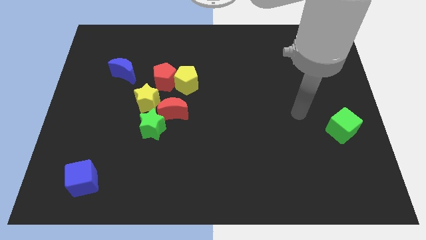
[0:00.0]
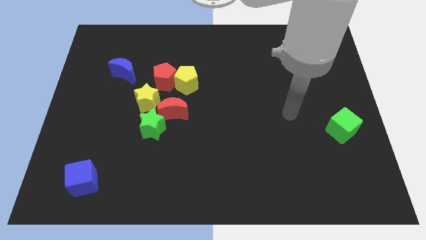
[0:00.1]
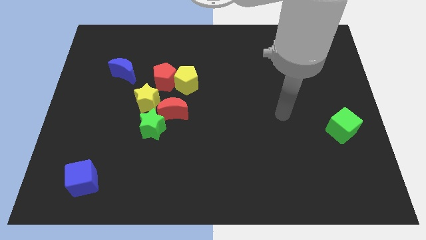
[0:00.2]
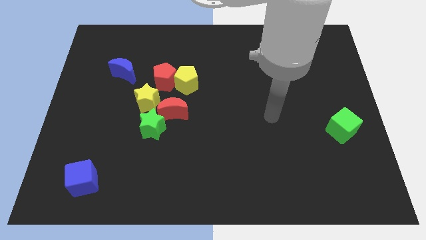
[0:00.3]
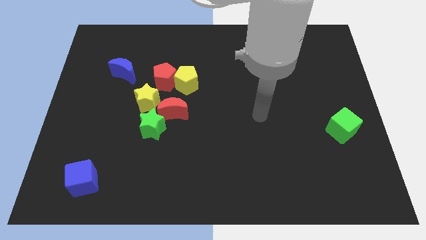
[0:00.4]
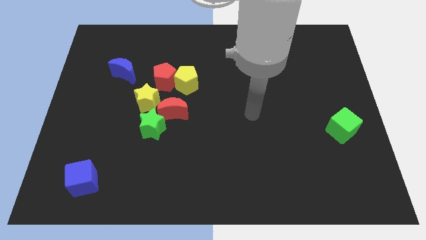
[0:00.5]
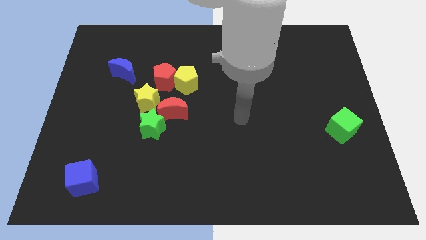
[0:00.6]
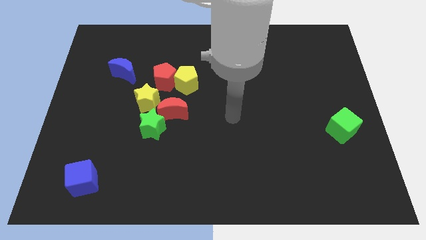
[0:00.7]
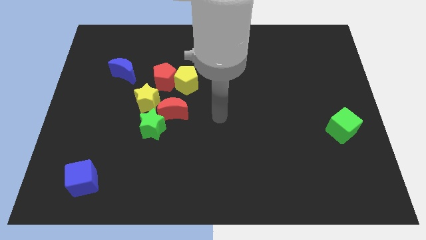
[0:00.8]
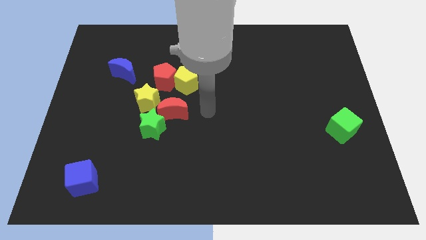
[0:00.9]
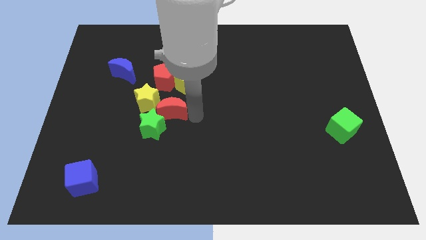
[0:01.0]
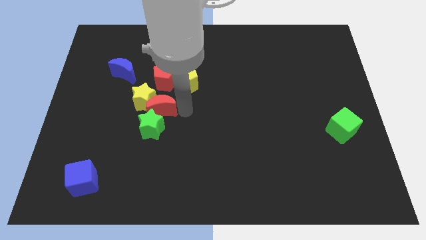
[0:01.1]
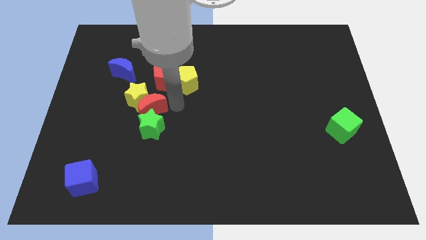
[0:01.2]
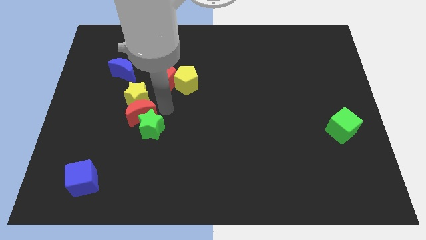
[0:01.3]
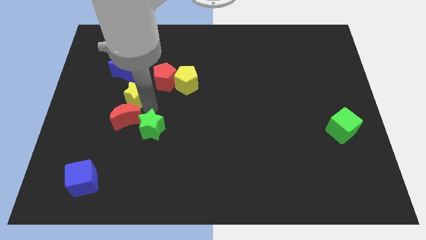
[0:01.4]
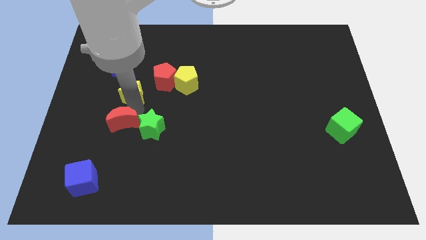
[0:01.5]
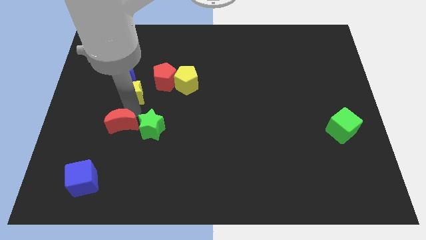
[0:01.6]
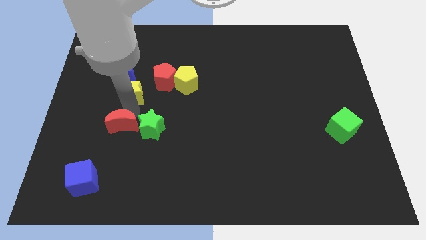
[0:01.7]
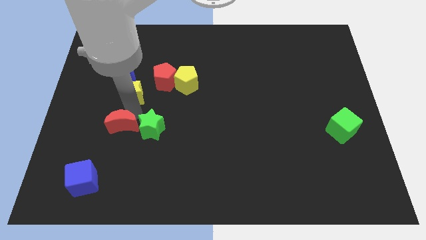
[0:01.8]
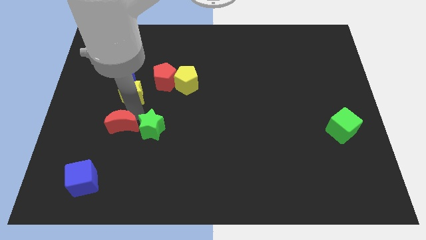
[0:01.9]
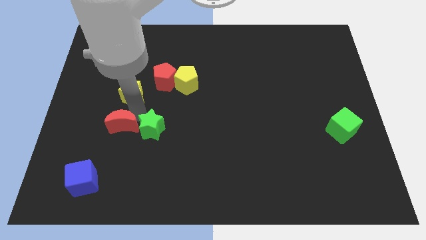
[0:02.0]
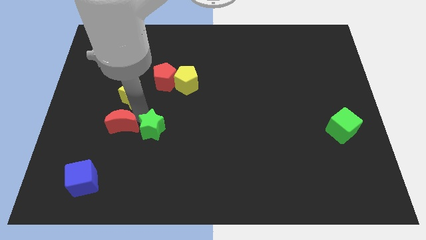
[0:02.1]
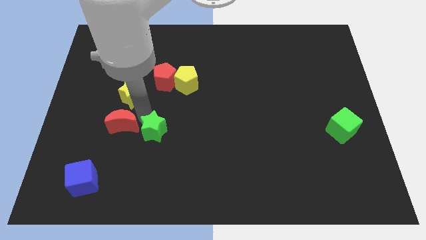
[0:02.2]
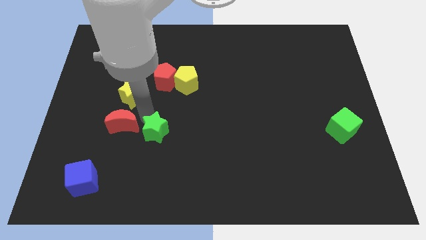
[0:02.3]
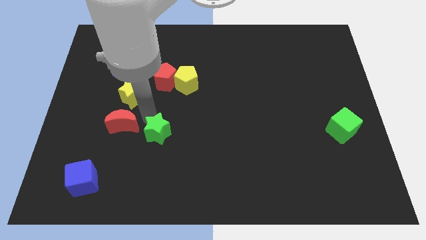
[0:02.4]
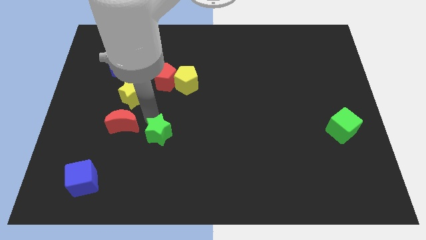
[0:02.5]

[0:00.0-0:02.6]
move the green star away from the red moon and yellow star

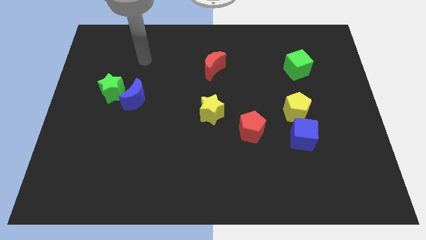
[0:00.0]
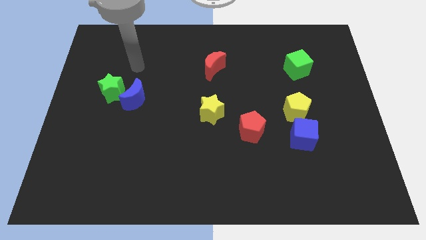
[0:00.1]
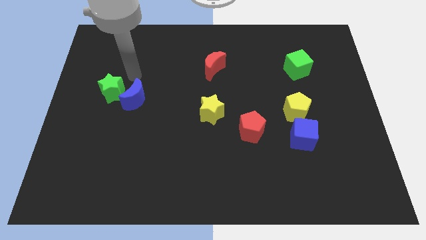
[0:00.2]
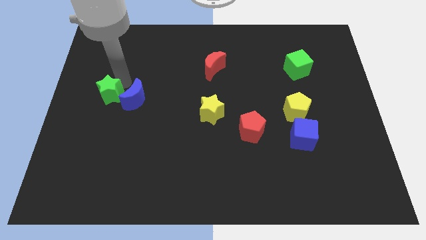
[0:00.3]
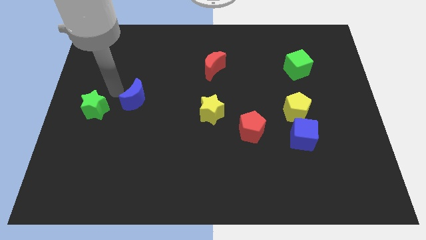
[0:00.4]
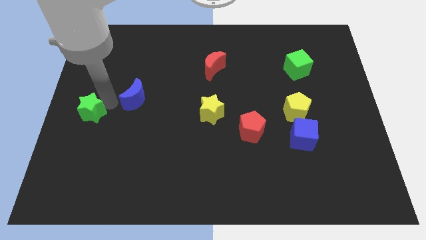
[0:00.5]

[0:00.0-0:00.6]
move the blue moon away from the green star

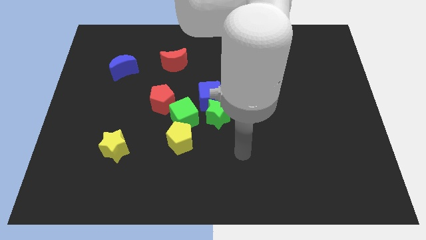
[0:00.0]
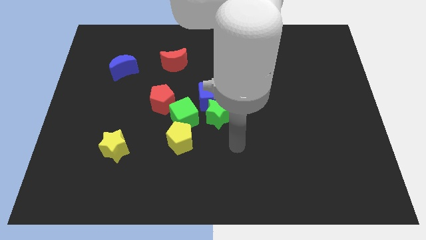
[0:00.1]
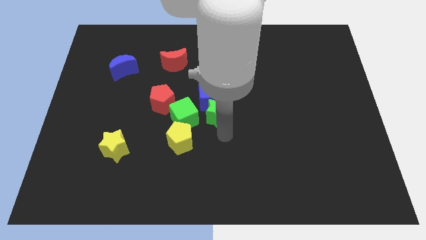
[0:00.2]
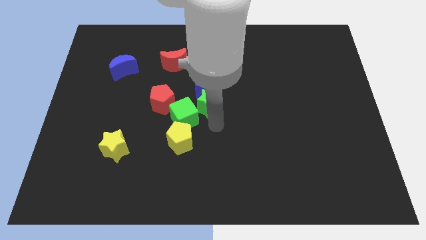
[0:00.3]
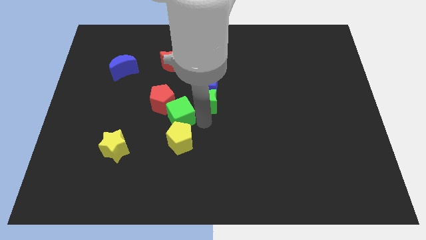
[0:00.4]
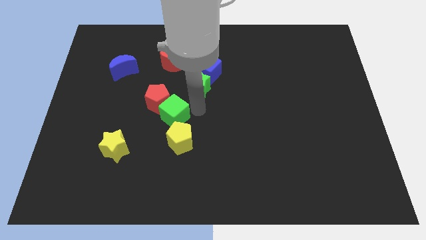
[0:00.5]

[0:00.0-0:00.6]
separate the blue cube from the green star and green cube

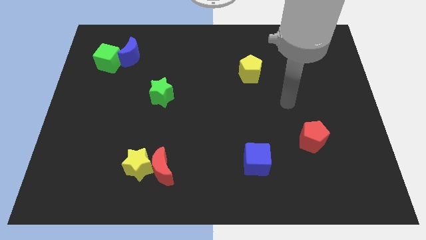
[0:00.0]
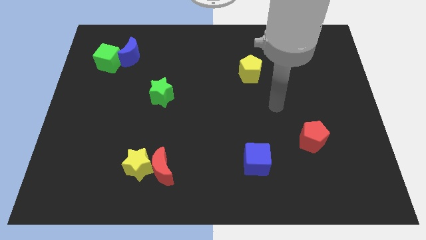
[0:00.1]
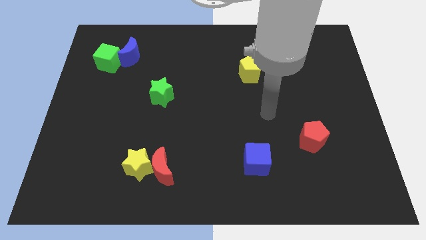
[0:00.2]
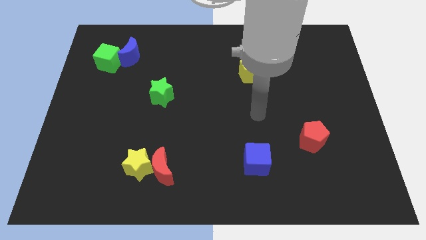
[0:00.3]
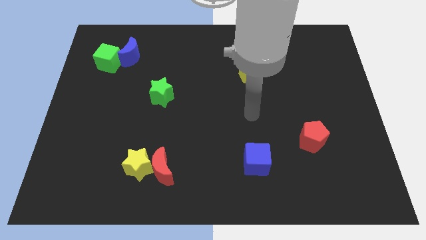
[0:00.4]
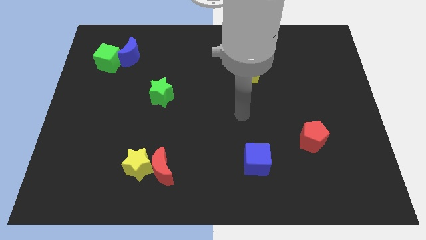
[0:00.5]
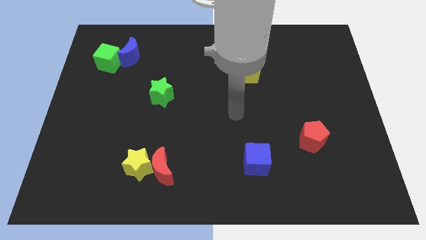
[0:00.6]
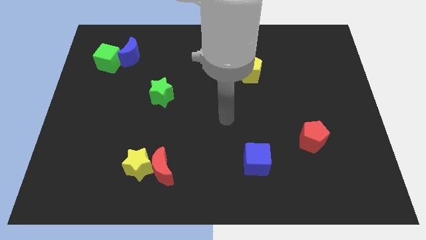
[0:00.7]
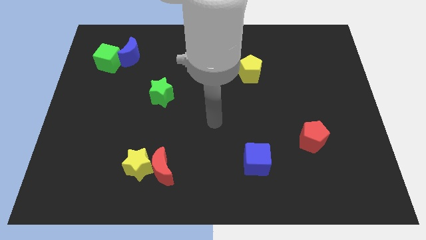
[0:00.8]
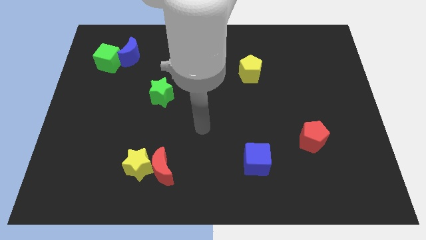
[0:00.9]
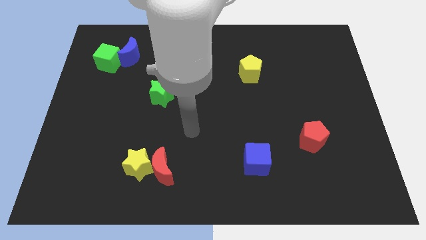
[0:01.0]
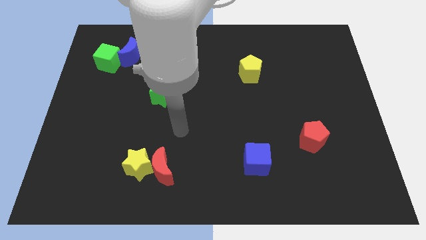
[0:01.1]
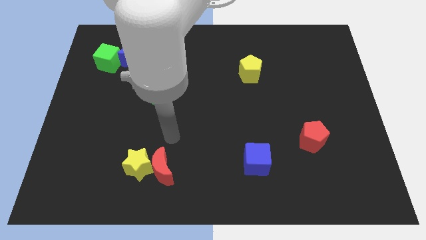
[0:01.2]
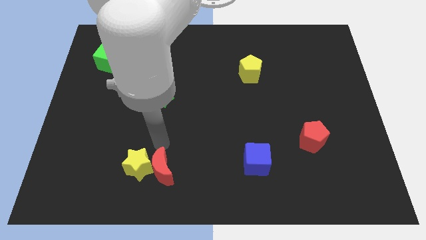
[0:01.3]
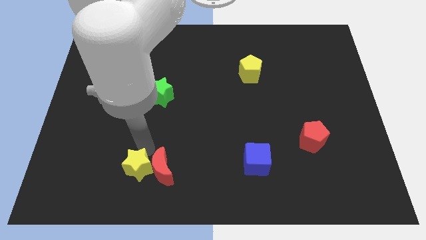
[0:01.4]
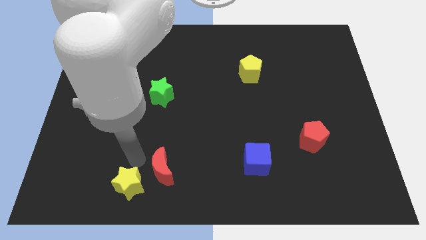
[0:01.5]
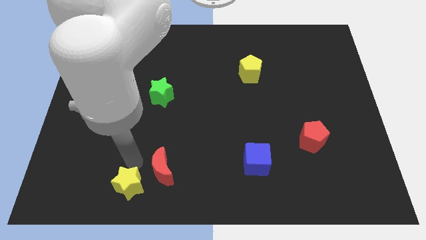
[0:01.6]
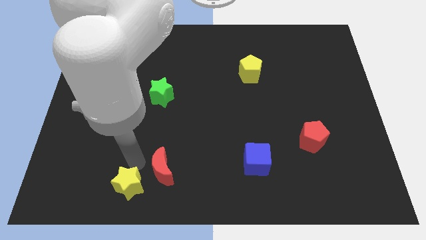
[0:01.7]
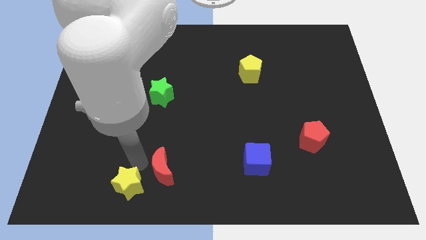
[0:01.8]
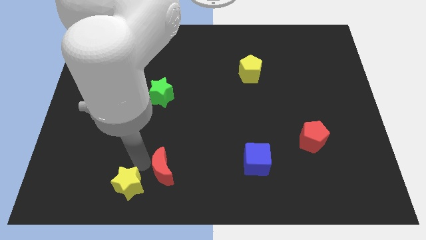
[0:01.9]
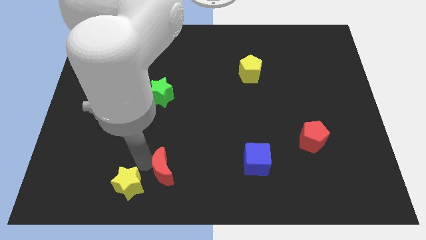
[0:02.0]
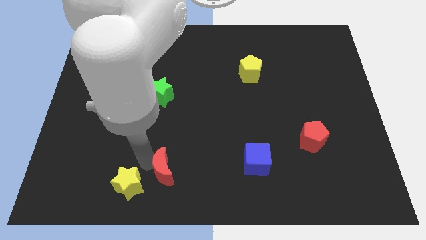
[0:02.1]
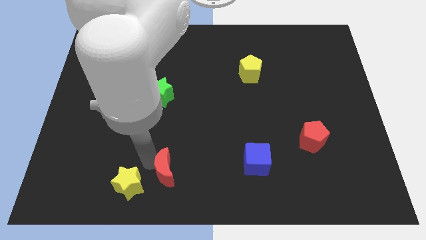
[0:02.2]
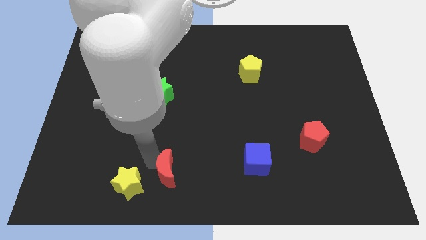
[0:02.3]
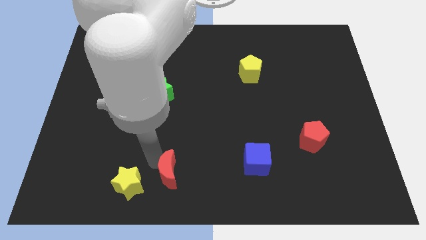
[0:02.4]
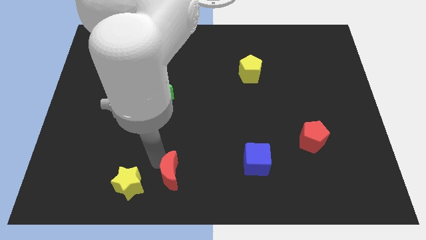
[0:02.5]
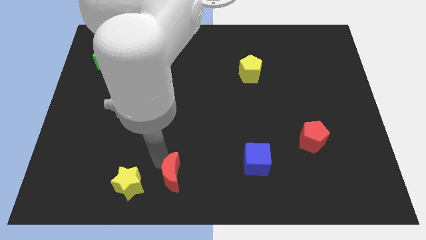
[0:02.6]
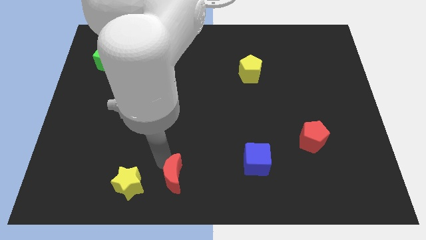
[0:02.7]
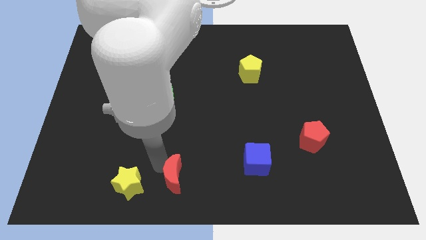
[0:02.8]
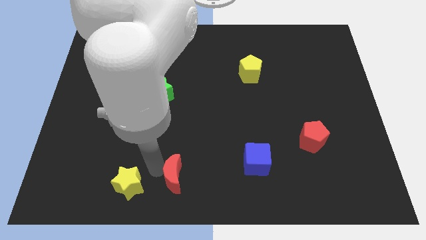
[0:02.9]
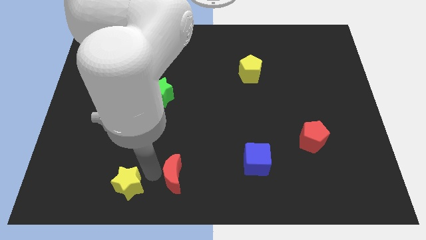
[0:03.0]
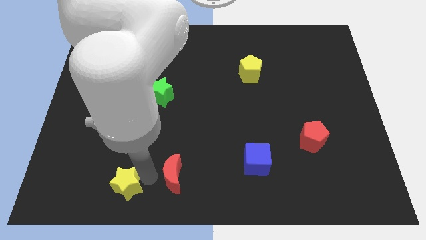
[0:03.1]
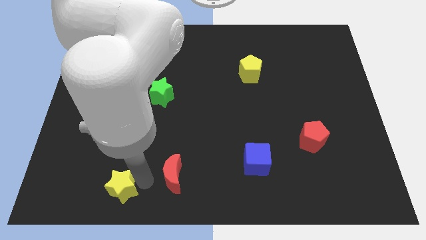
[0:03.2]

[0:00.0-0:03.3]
pull the red moon apart from the yellow star

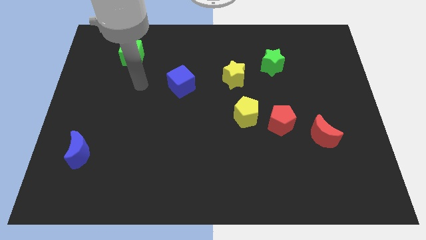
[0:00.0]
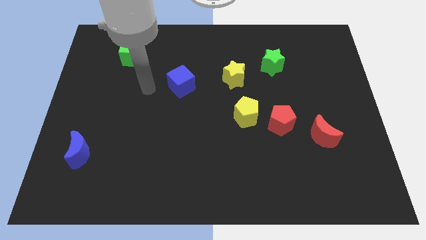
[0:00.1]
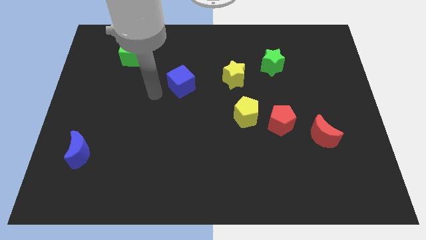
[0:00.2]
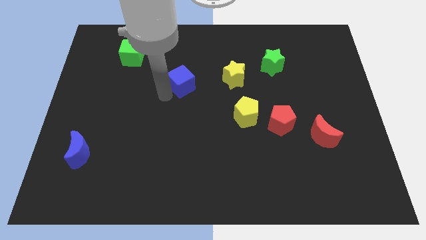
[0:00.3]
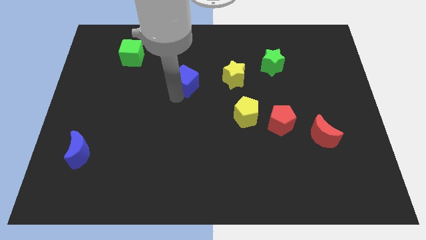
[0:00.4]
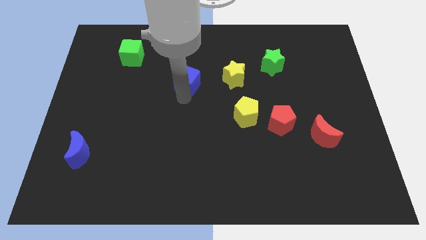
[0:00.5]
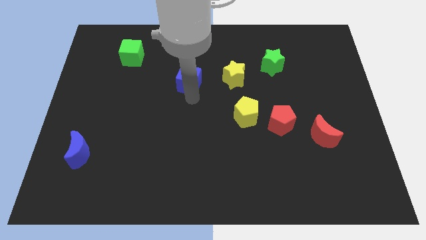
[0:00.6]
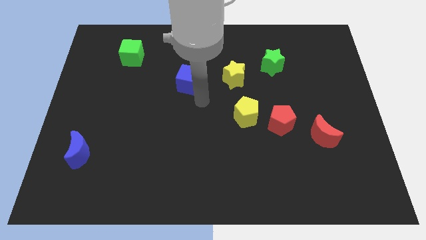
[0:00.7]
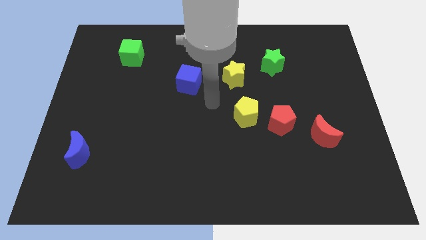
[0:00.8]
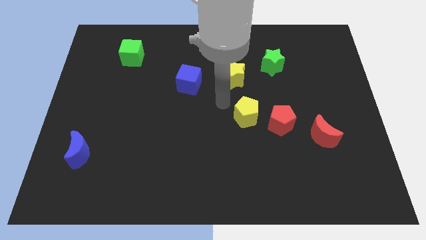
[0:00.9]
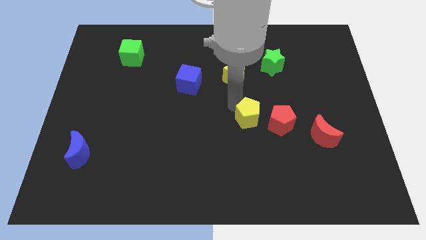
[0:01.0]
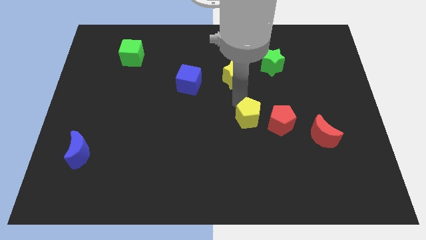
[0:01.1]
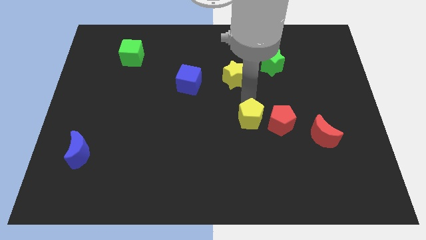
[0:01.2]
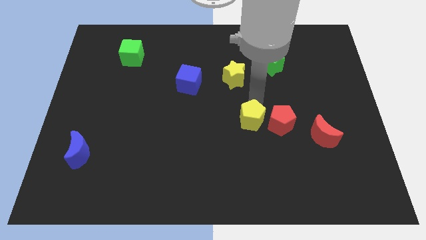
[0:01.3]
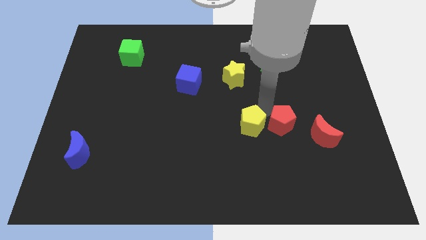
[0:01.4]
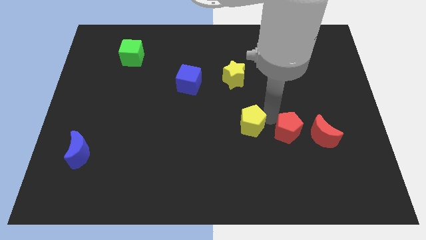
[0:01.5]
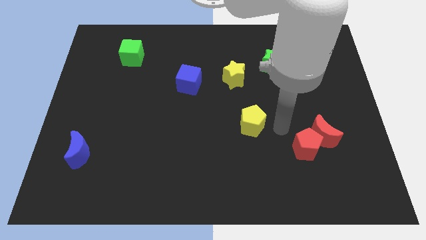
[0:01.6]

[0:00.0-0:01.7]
pull the yellow pentagon apart from the red pentagon

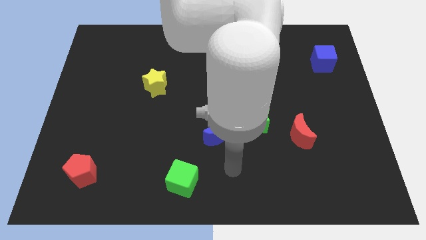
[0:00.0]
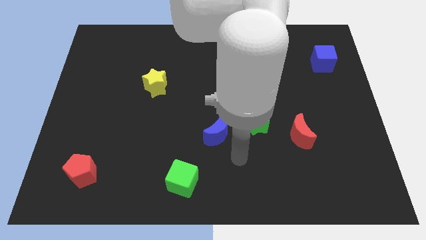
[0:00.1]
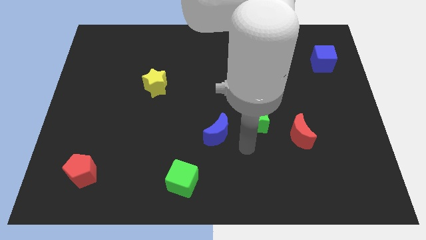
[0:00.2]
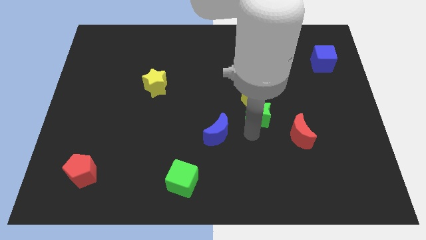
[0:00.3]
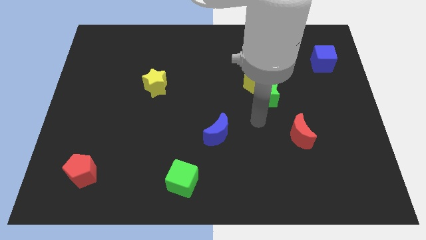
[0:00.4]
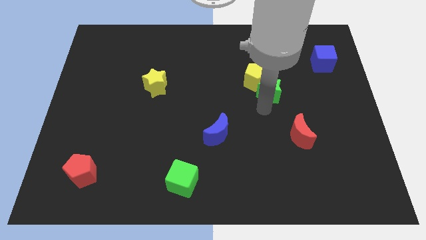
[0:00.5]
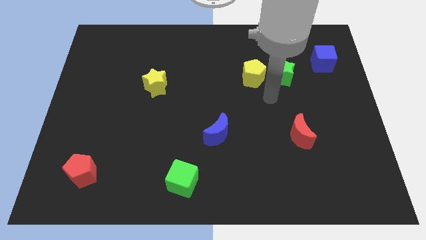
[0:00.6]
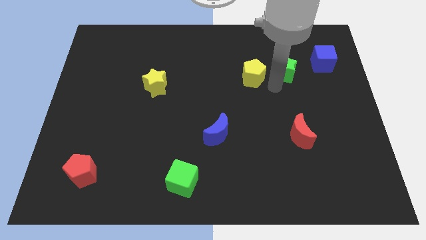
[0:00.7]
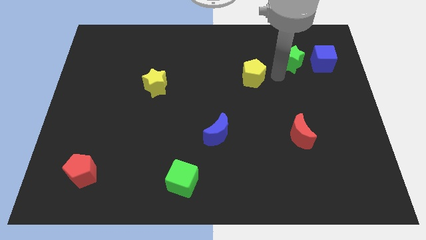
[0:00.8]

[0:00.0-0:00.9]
separate the yellow pentagon from the green star
